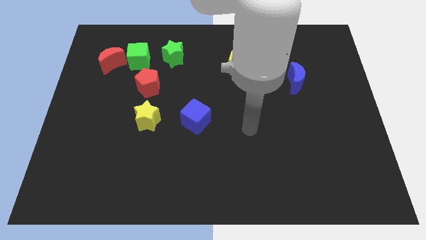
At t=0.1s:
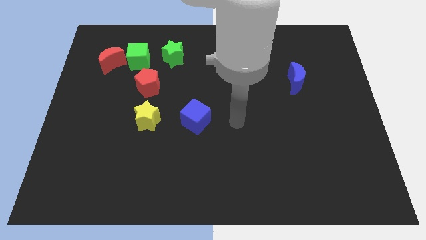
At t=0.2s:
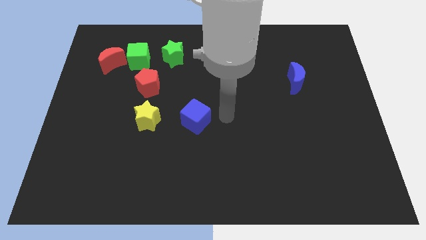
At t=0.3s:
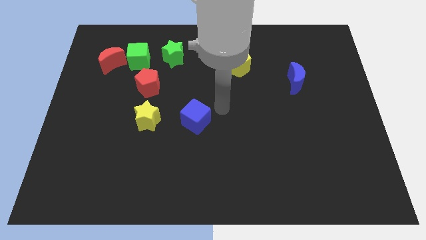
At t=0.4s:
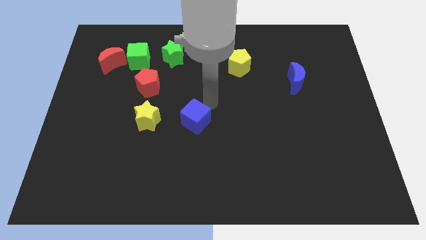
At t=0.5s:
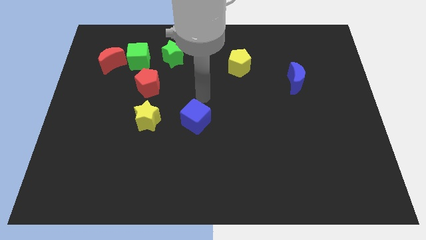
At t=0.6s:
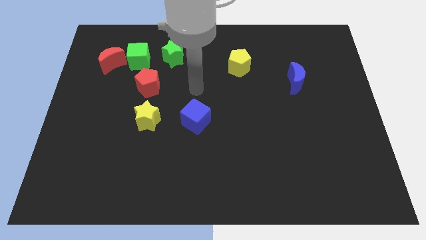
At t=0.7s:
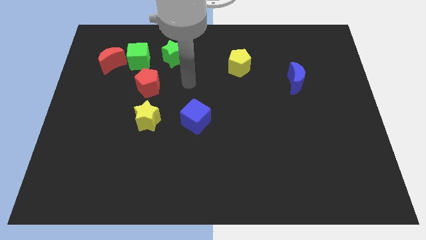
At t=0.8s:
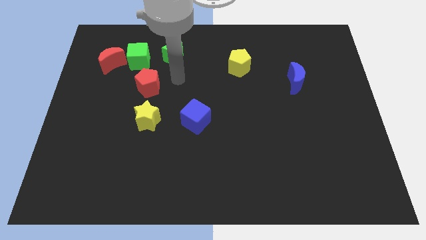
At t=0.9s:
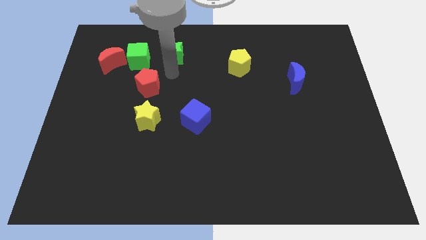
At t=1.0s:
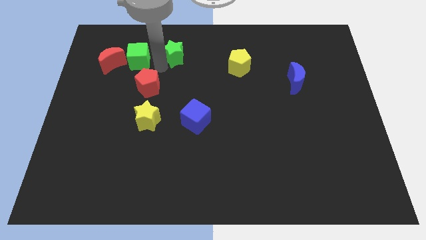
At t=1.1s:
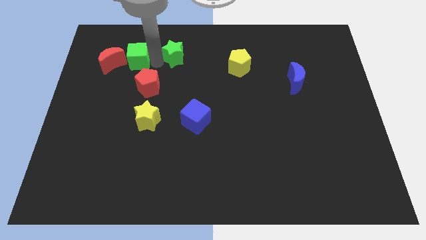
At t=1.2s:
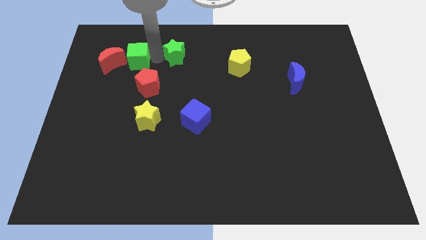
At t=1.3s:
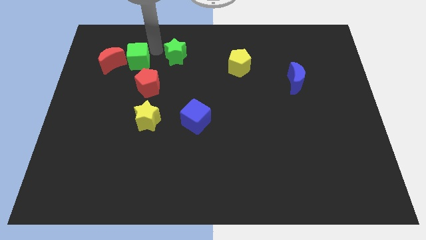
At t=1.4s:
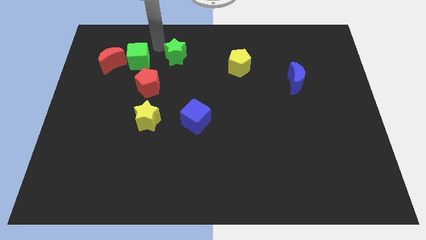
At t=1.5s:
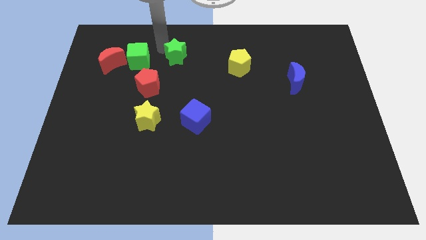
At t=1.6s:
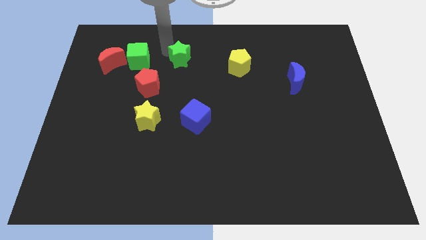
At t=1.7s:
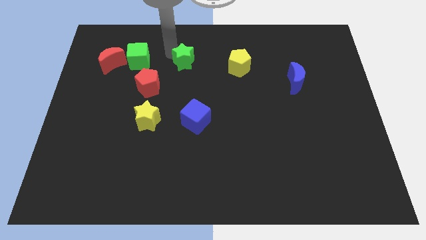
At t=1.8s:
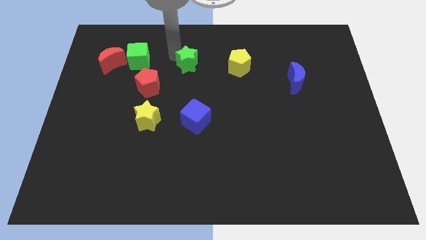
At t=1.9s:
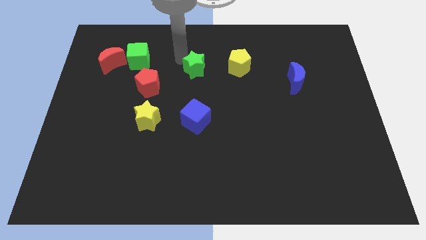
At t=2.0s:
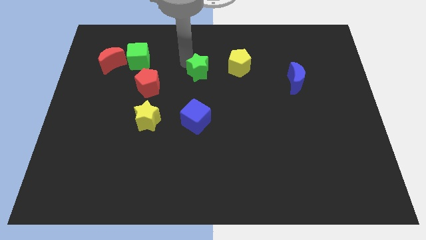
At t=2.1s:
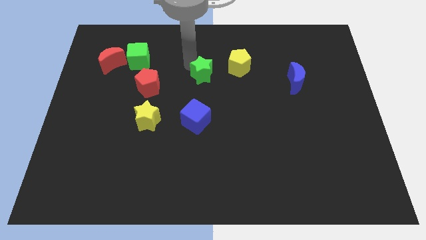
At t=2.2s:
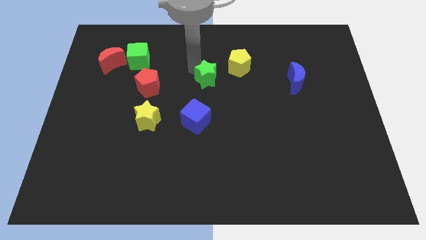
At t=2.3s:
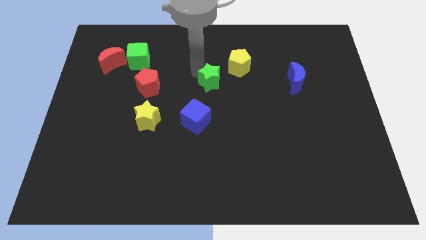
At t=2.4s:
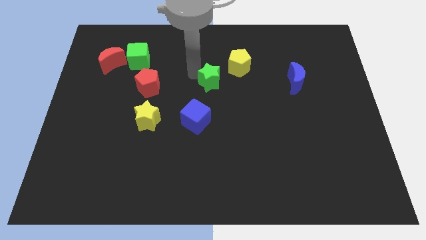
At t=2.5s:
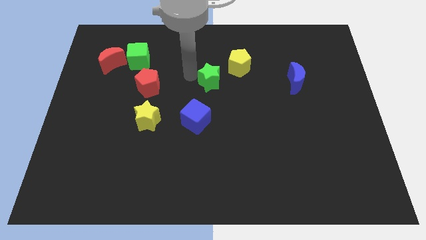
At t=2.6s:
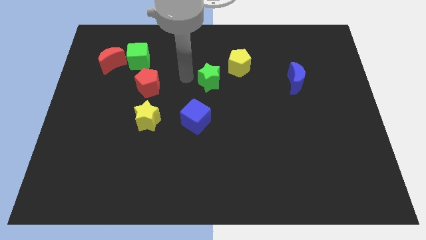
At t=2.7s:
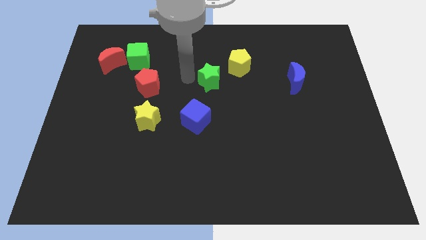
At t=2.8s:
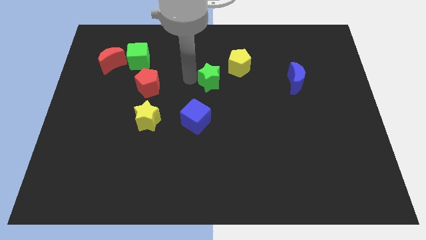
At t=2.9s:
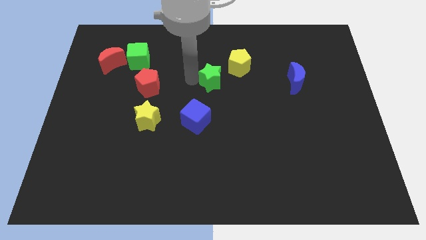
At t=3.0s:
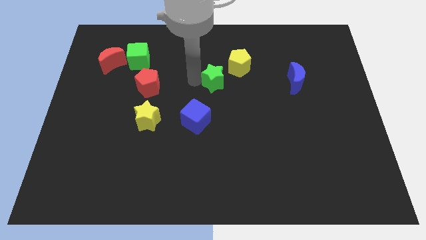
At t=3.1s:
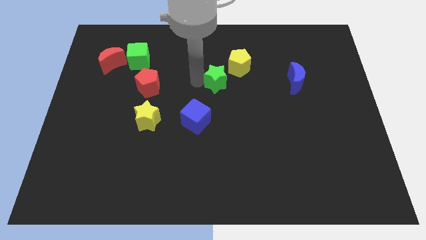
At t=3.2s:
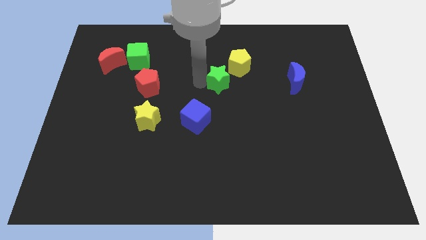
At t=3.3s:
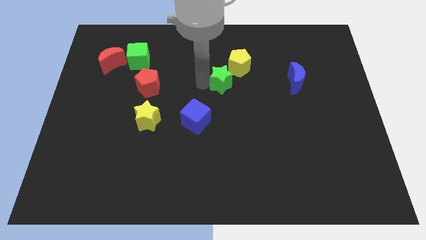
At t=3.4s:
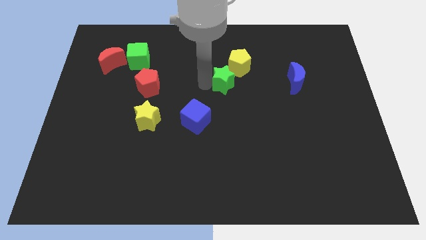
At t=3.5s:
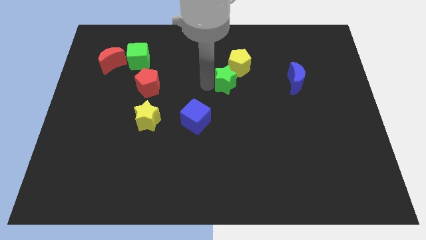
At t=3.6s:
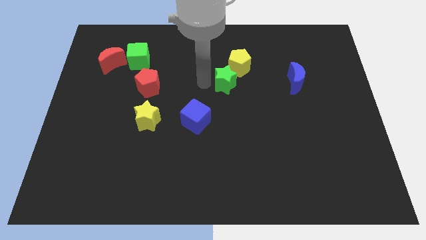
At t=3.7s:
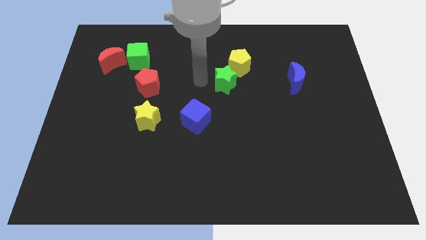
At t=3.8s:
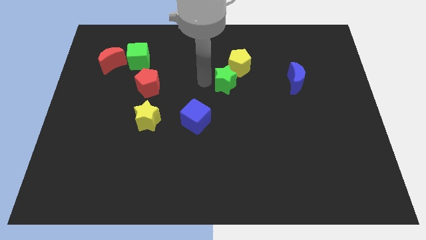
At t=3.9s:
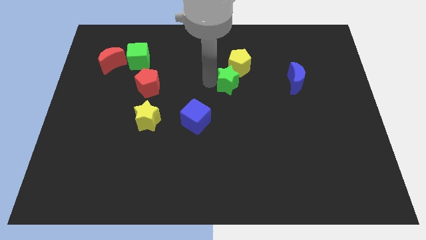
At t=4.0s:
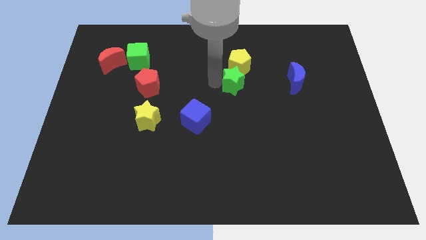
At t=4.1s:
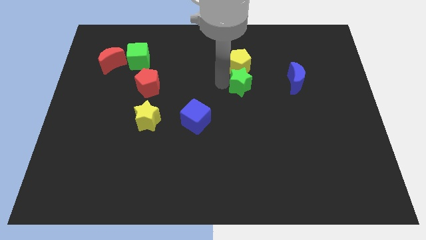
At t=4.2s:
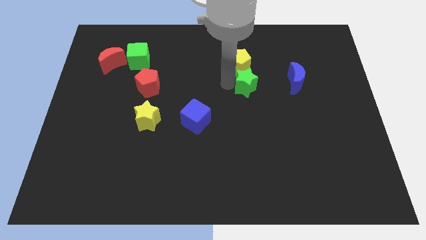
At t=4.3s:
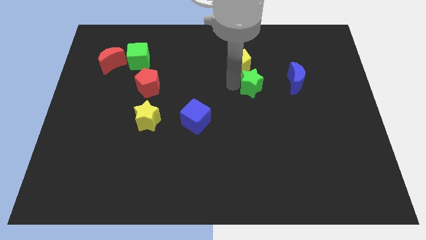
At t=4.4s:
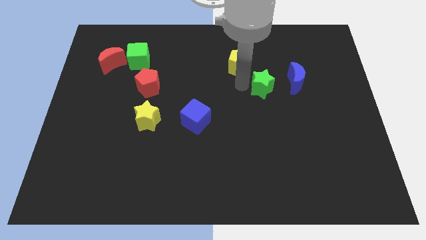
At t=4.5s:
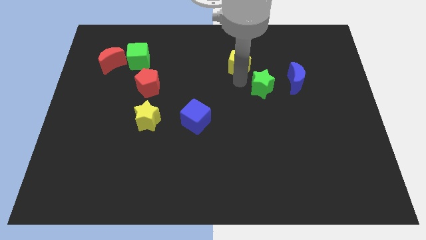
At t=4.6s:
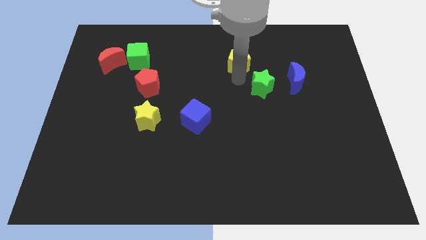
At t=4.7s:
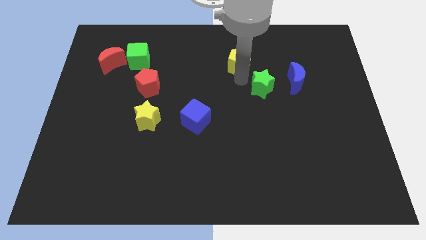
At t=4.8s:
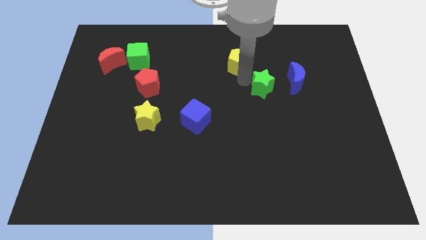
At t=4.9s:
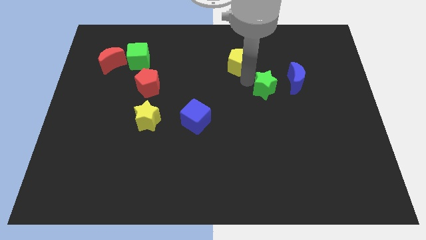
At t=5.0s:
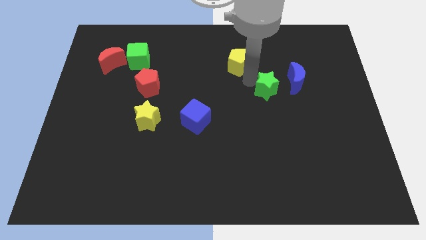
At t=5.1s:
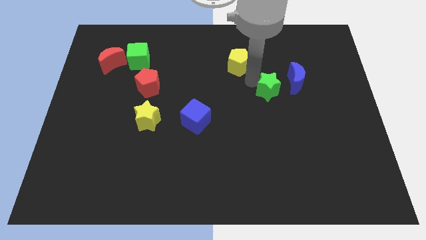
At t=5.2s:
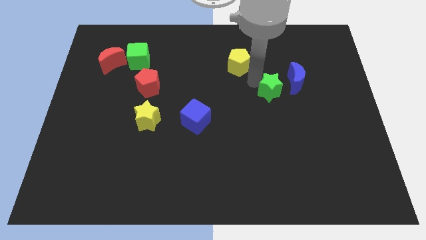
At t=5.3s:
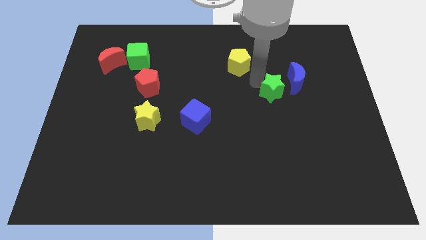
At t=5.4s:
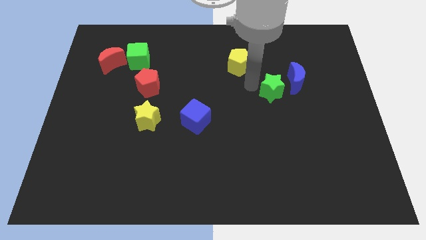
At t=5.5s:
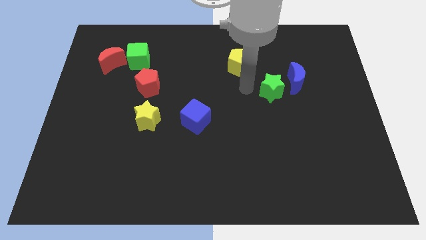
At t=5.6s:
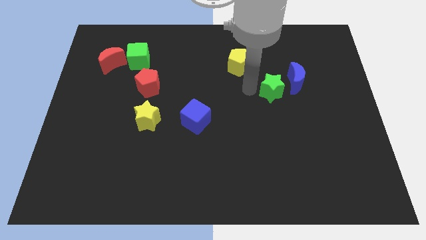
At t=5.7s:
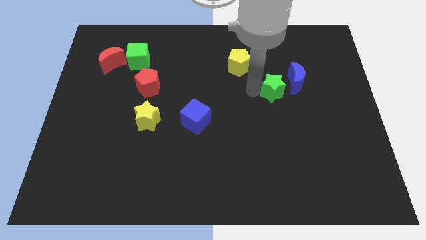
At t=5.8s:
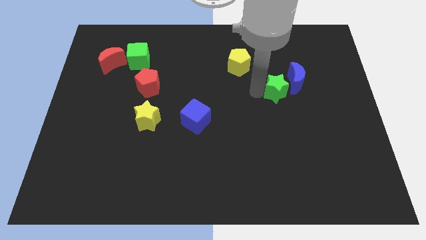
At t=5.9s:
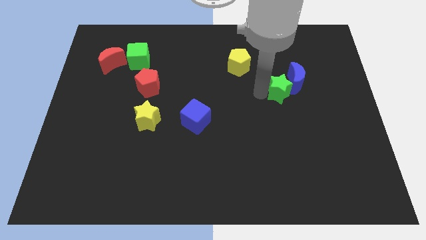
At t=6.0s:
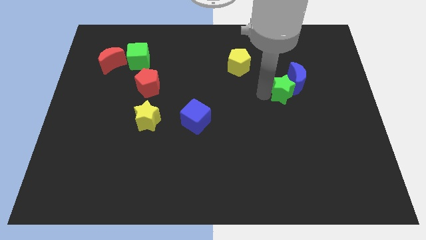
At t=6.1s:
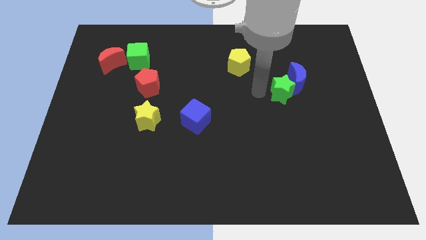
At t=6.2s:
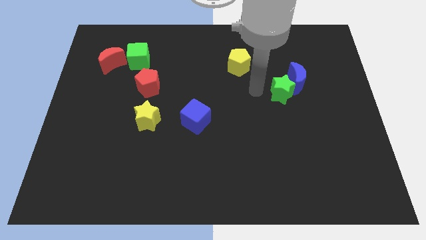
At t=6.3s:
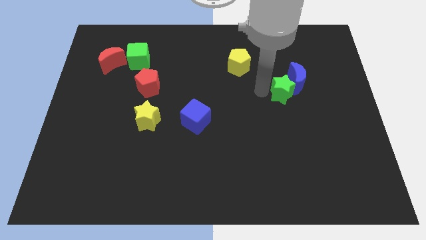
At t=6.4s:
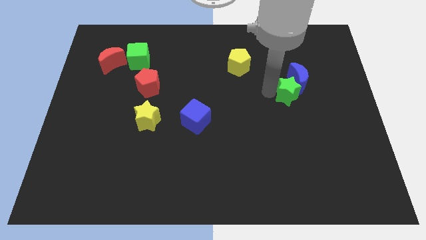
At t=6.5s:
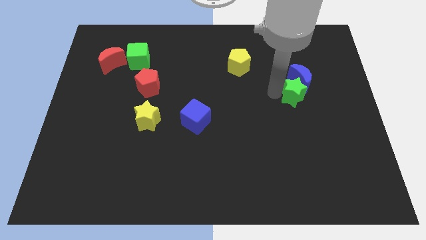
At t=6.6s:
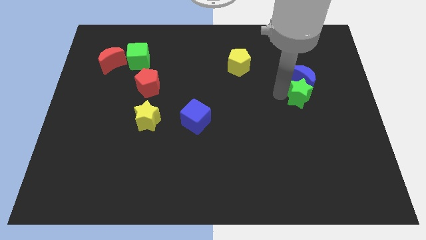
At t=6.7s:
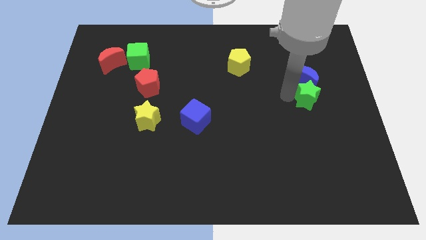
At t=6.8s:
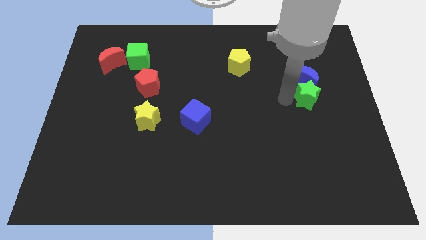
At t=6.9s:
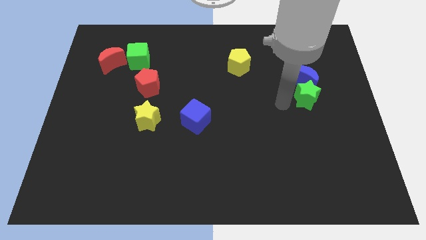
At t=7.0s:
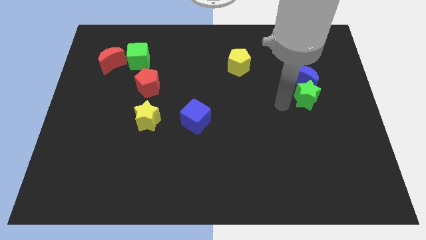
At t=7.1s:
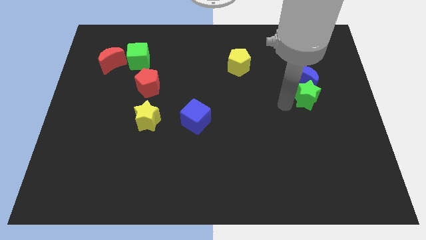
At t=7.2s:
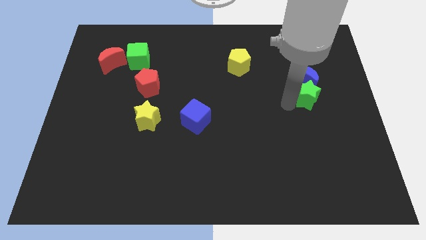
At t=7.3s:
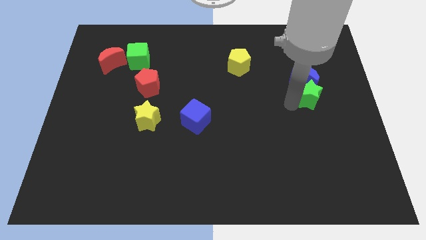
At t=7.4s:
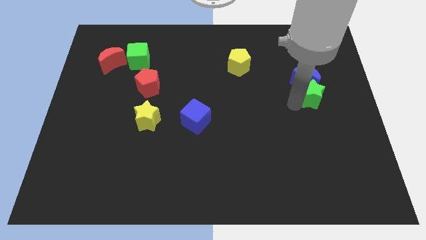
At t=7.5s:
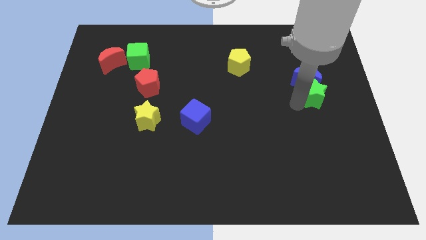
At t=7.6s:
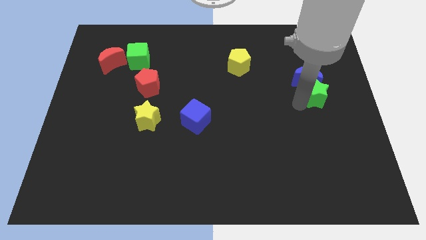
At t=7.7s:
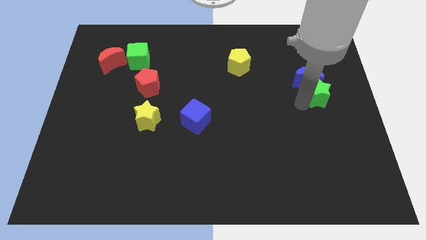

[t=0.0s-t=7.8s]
move the green star to the right side of the board
